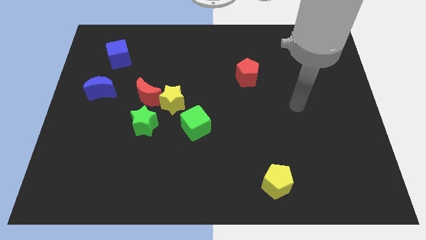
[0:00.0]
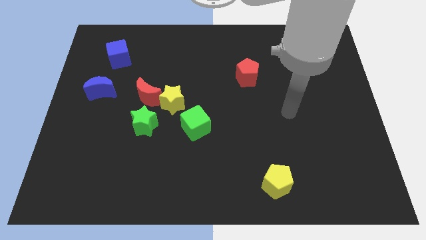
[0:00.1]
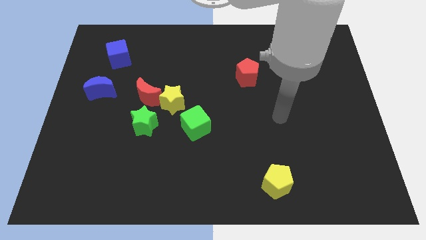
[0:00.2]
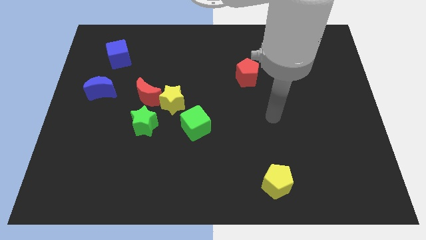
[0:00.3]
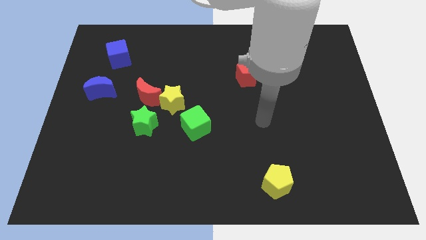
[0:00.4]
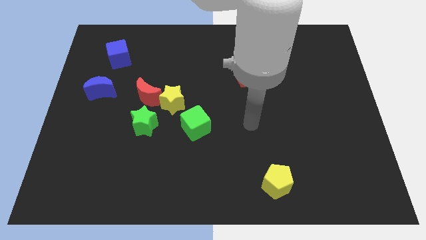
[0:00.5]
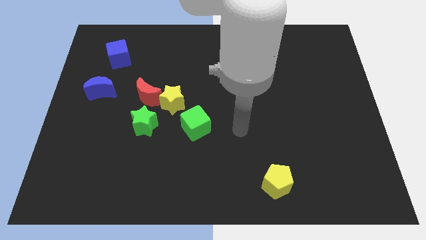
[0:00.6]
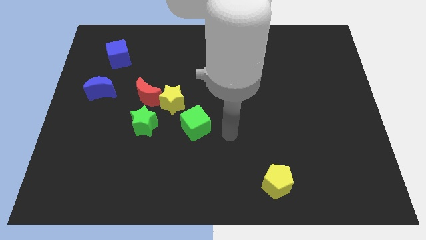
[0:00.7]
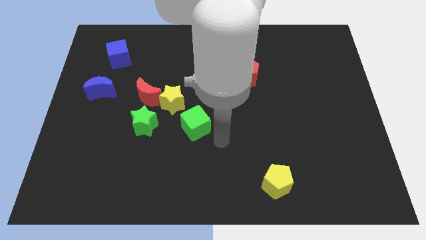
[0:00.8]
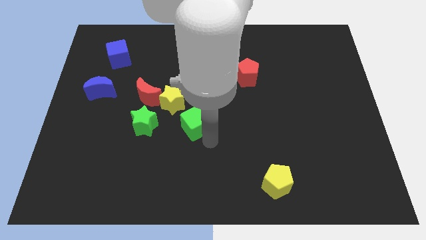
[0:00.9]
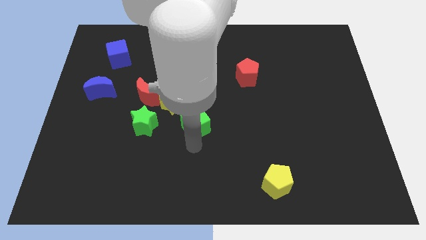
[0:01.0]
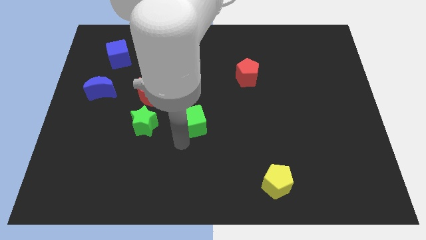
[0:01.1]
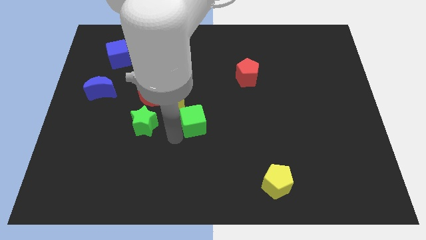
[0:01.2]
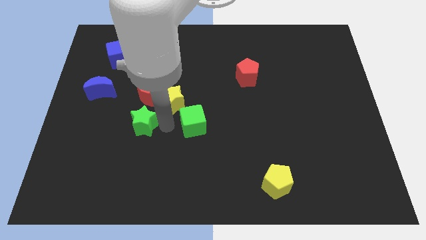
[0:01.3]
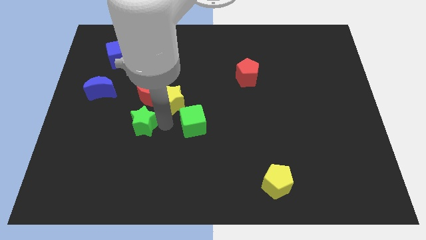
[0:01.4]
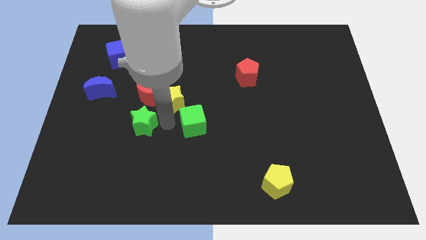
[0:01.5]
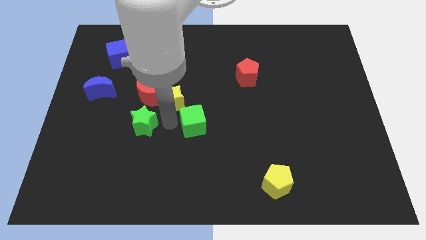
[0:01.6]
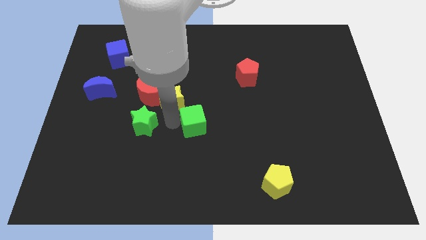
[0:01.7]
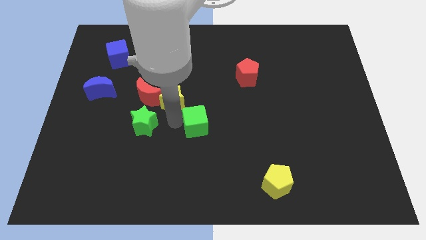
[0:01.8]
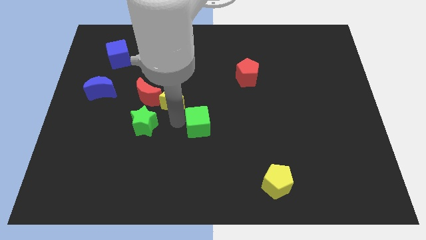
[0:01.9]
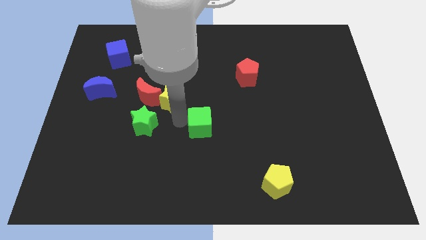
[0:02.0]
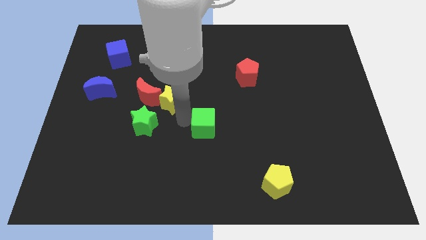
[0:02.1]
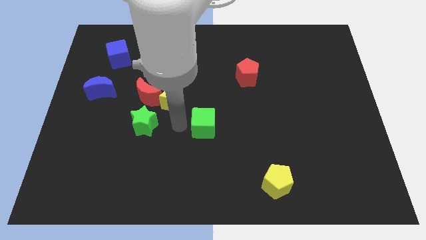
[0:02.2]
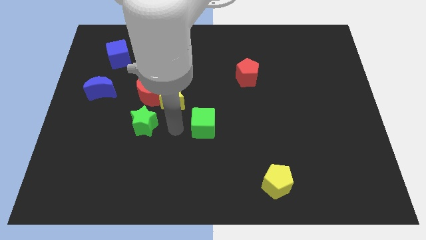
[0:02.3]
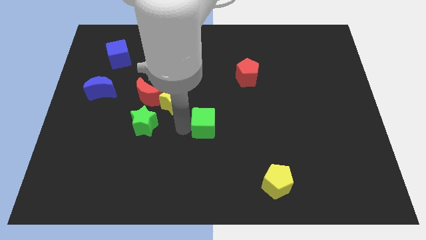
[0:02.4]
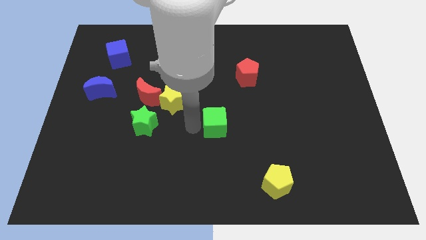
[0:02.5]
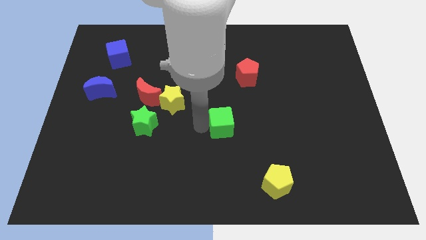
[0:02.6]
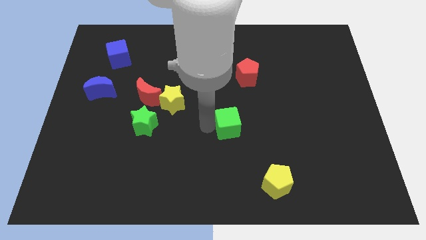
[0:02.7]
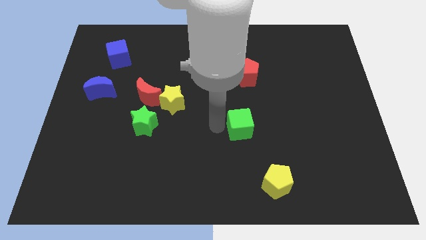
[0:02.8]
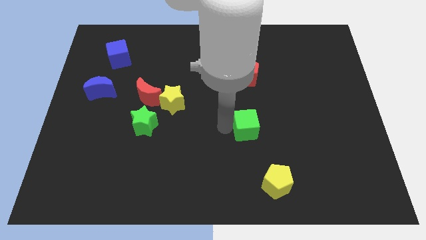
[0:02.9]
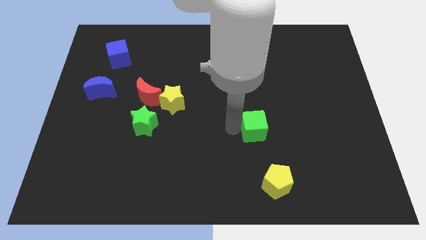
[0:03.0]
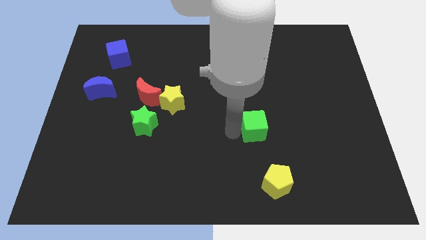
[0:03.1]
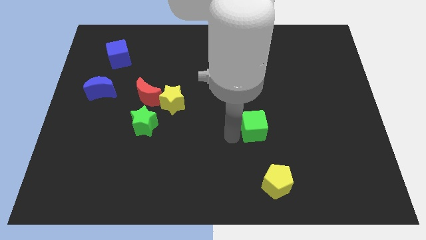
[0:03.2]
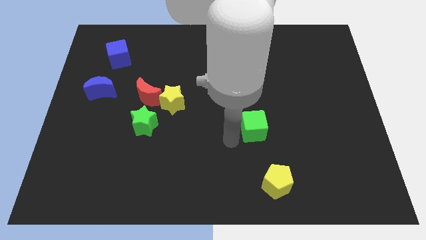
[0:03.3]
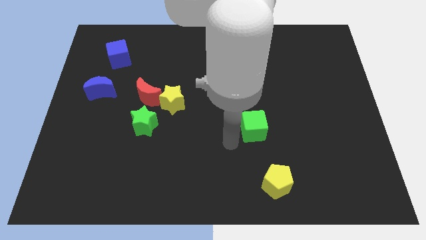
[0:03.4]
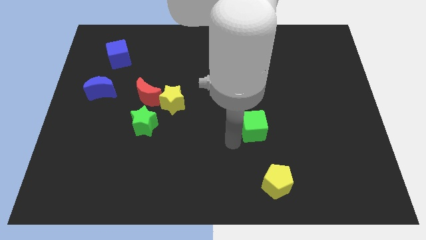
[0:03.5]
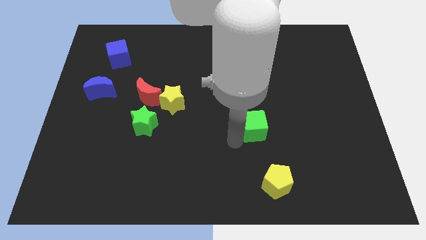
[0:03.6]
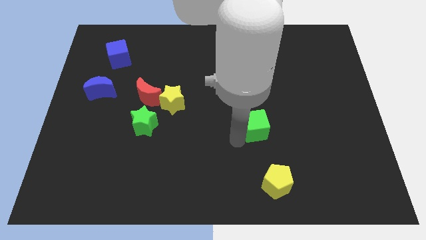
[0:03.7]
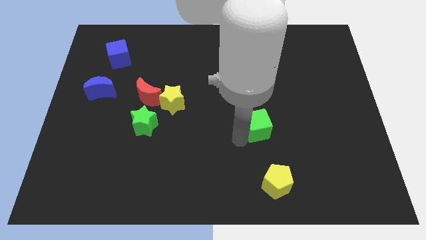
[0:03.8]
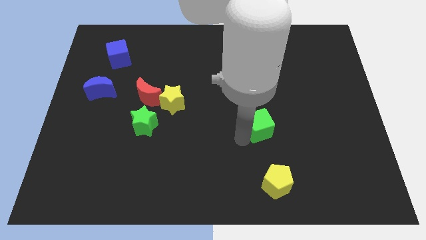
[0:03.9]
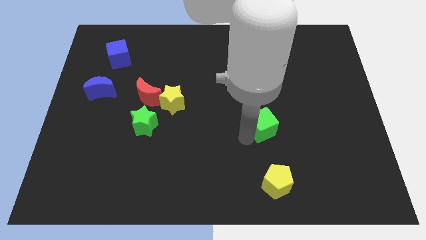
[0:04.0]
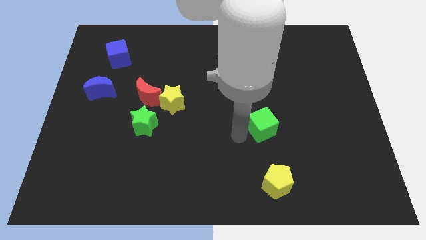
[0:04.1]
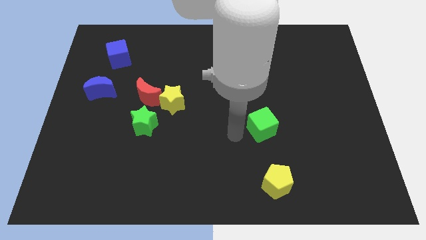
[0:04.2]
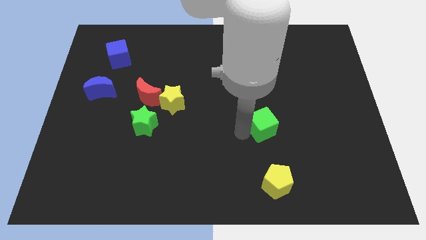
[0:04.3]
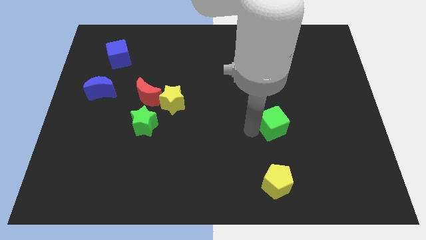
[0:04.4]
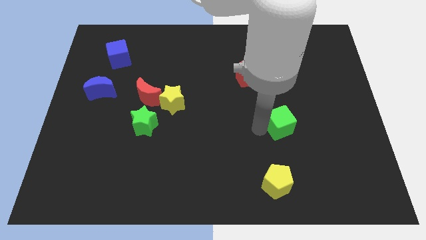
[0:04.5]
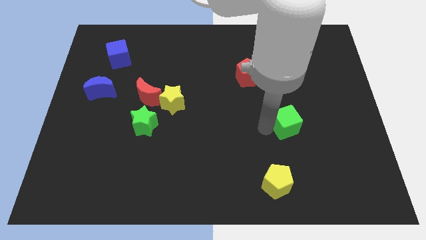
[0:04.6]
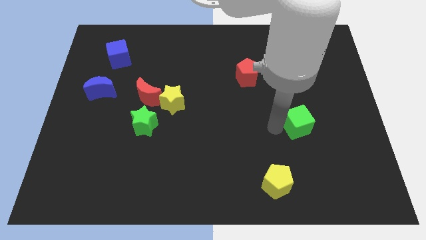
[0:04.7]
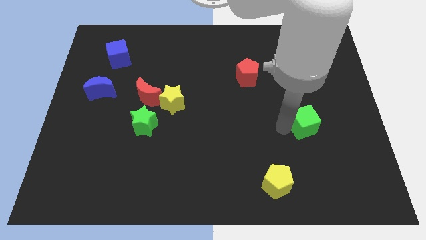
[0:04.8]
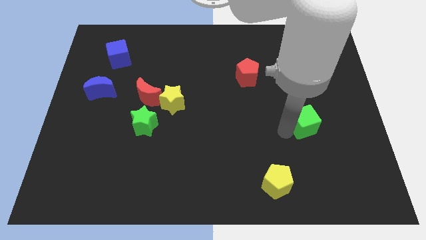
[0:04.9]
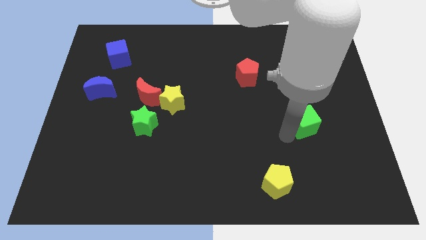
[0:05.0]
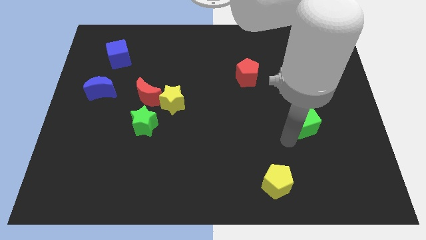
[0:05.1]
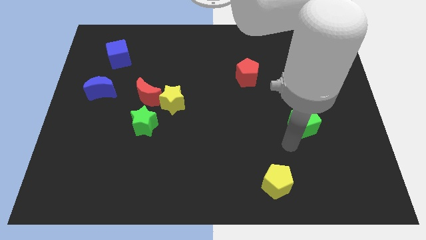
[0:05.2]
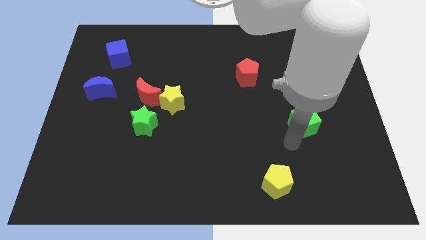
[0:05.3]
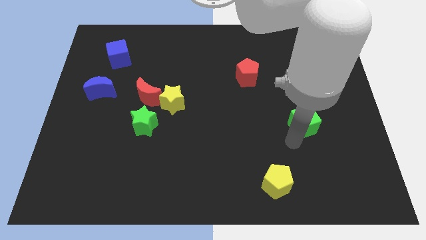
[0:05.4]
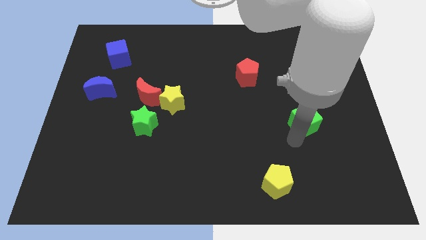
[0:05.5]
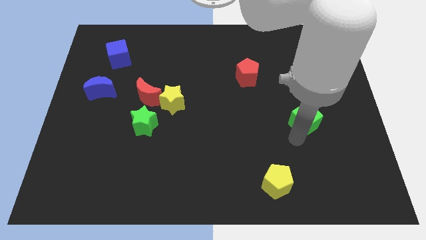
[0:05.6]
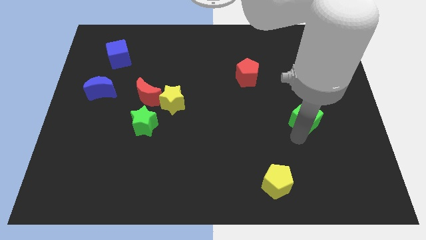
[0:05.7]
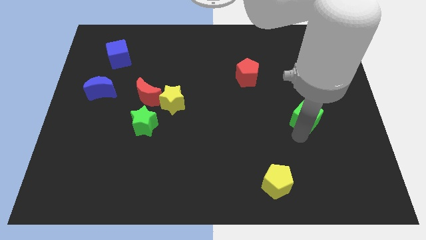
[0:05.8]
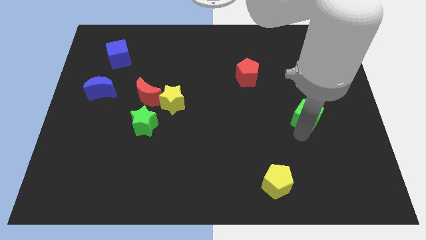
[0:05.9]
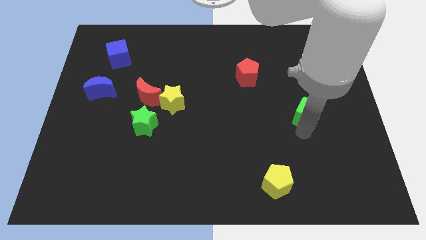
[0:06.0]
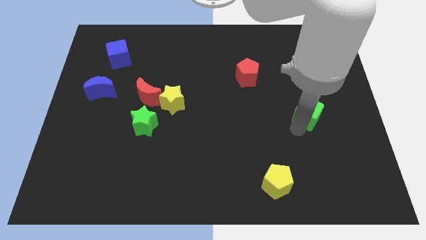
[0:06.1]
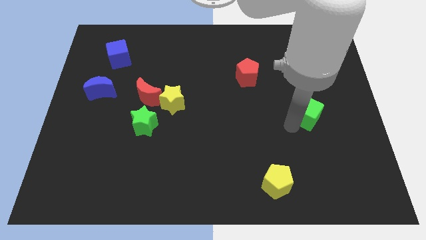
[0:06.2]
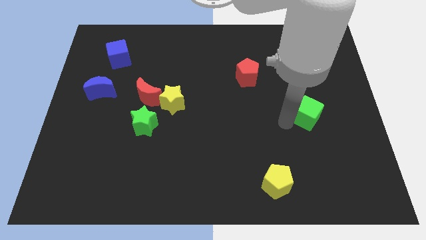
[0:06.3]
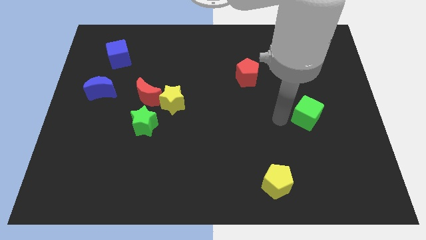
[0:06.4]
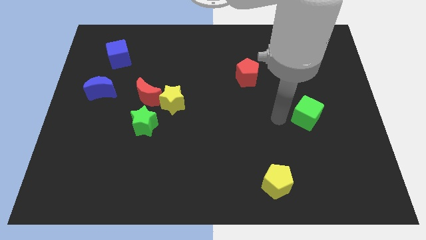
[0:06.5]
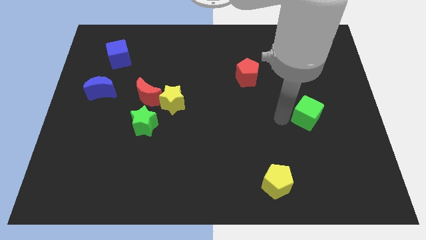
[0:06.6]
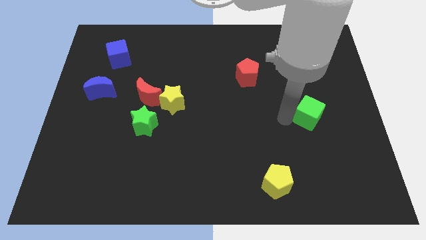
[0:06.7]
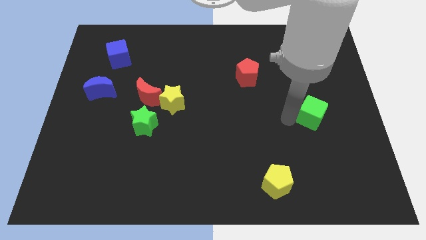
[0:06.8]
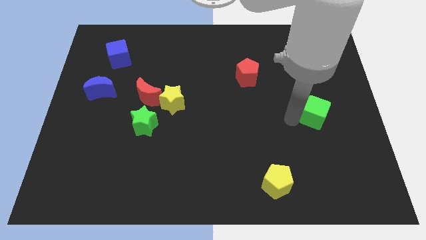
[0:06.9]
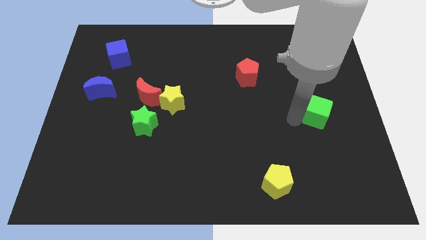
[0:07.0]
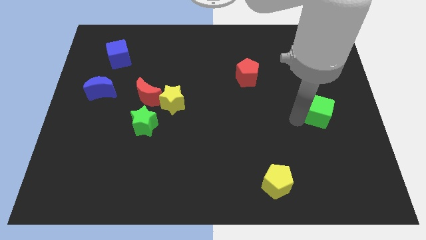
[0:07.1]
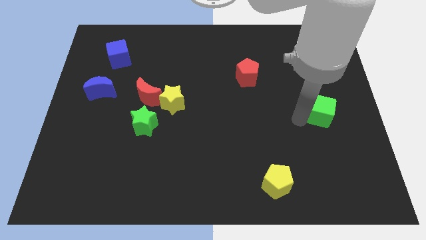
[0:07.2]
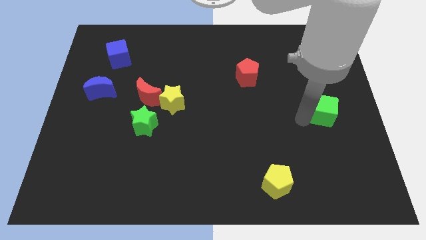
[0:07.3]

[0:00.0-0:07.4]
put the green cube to the right side of the board
